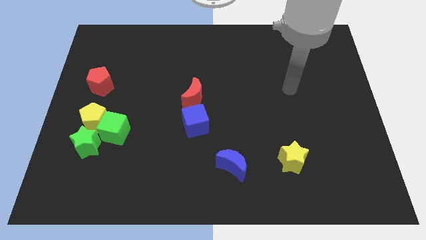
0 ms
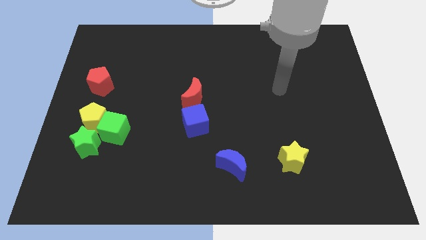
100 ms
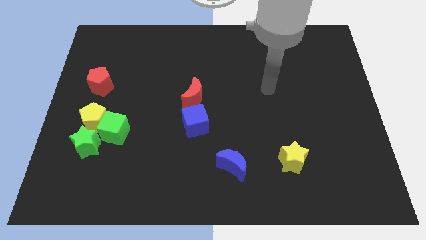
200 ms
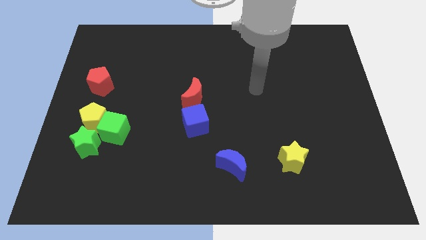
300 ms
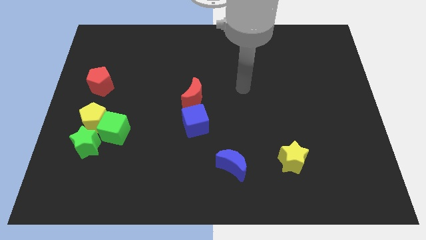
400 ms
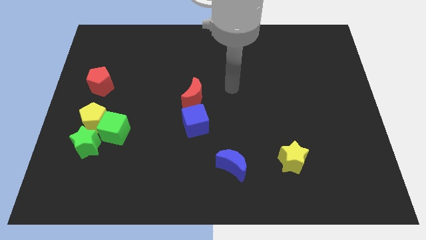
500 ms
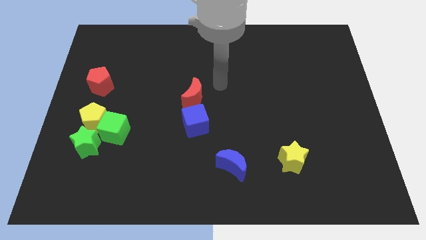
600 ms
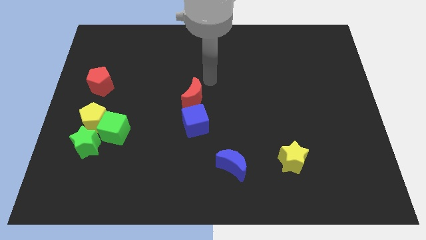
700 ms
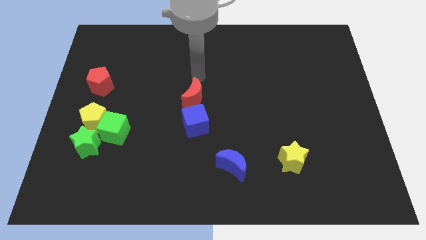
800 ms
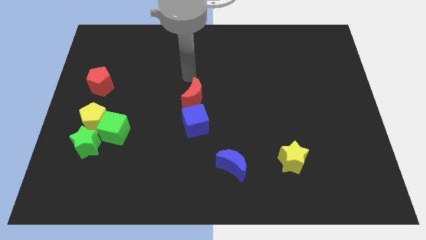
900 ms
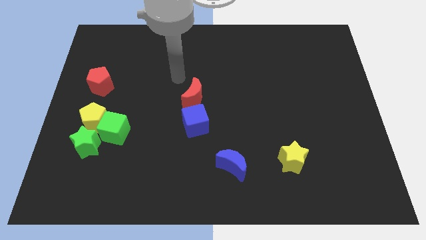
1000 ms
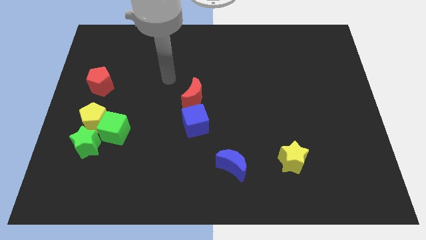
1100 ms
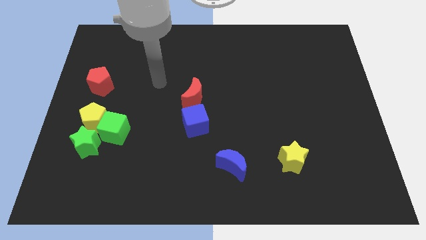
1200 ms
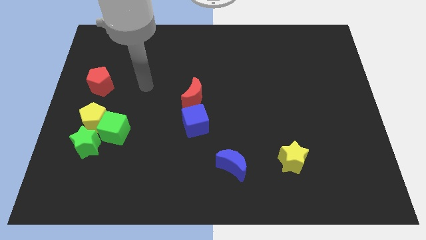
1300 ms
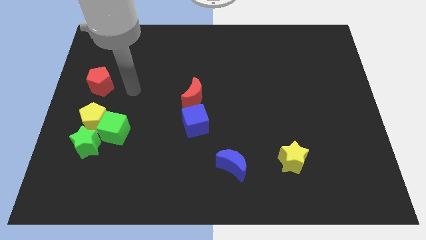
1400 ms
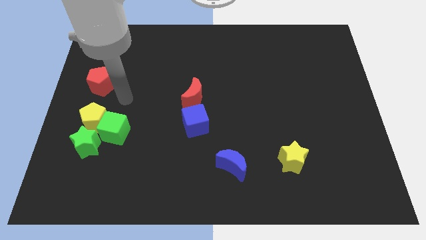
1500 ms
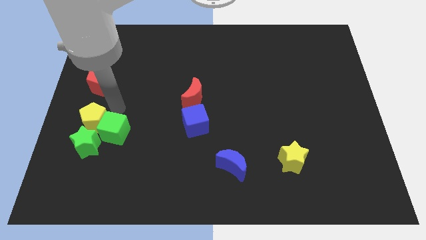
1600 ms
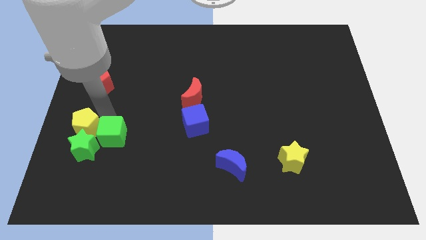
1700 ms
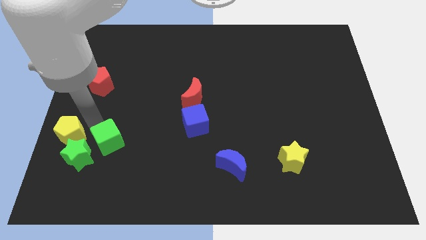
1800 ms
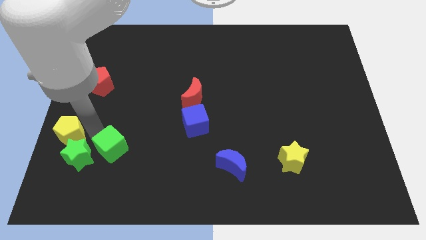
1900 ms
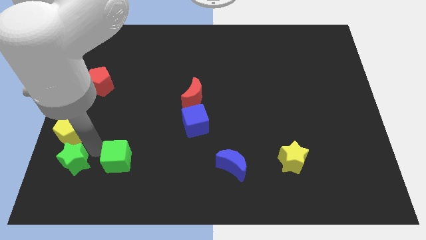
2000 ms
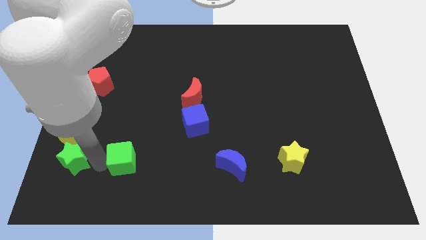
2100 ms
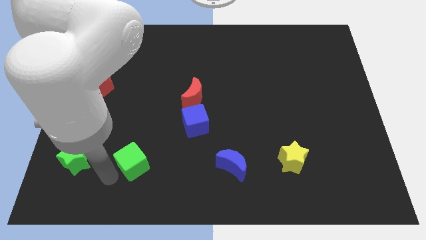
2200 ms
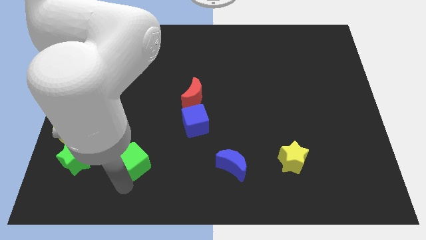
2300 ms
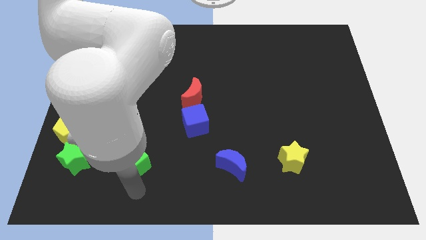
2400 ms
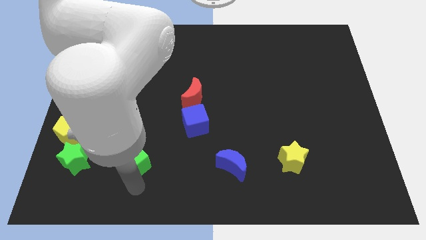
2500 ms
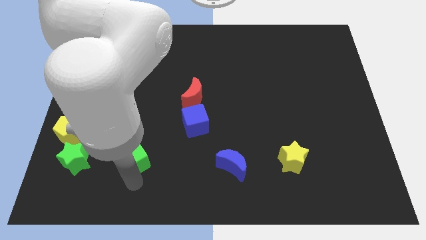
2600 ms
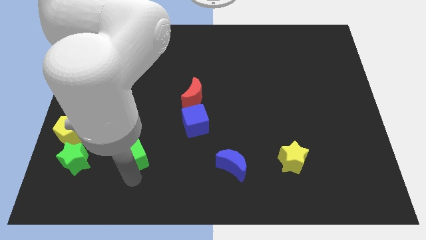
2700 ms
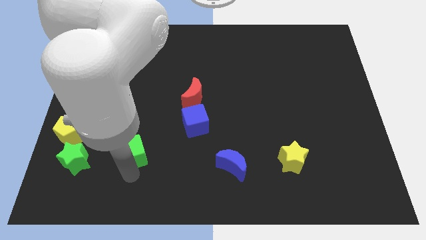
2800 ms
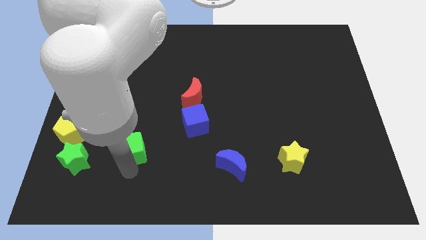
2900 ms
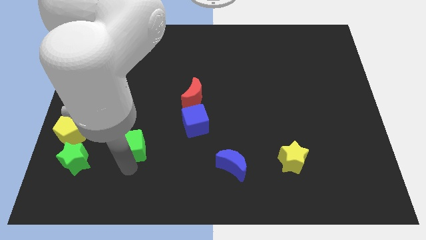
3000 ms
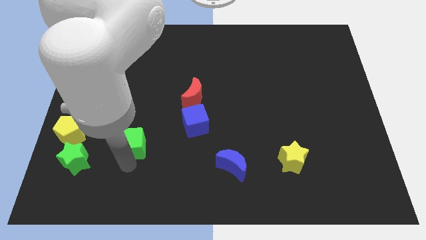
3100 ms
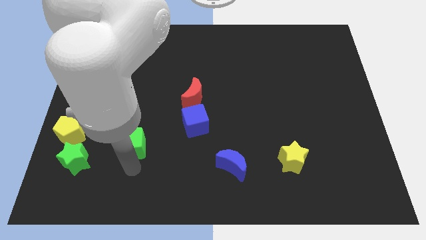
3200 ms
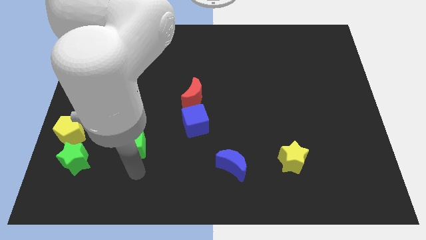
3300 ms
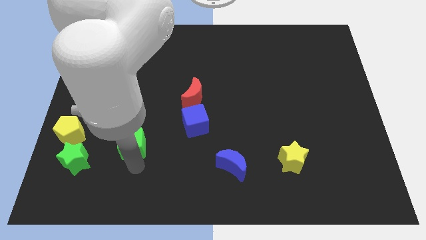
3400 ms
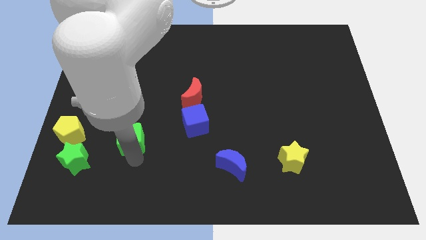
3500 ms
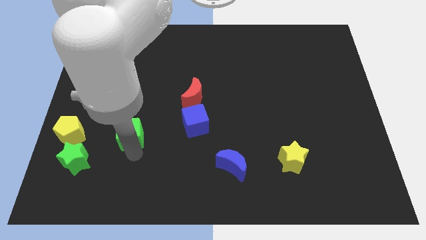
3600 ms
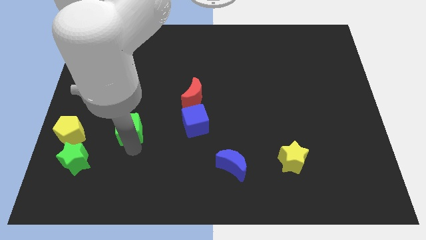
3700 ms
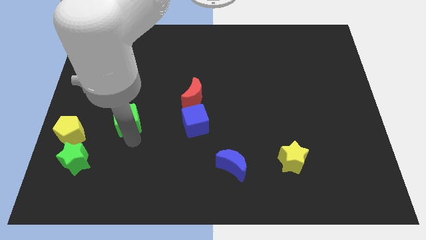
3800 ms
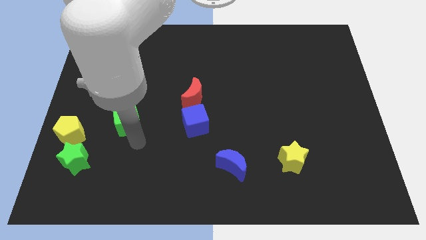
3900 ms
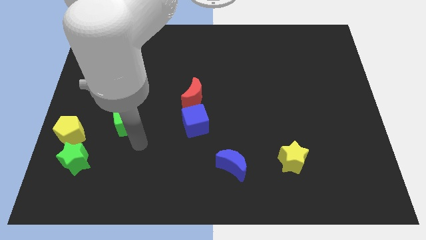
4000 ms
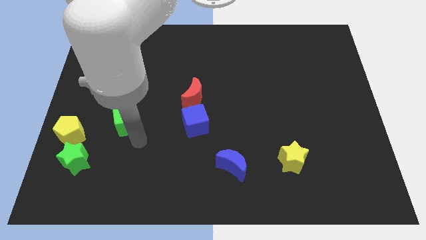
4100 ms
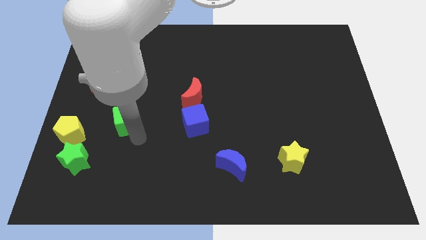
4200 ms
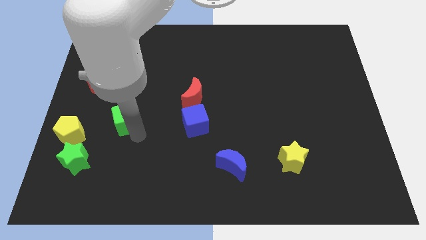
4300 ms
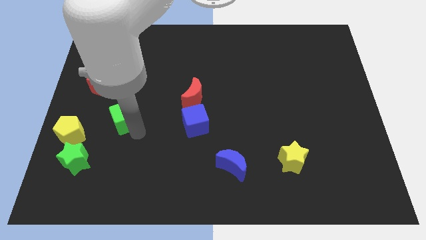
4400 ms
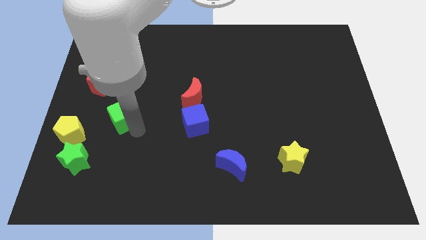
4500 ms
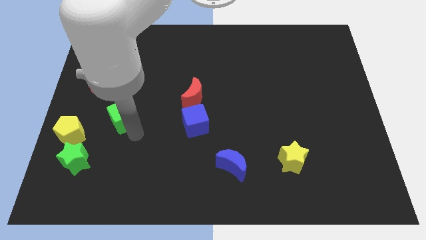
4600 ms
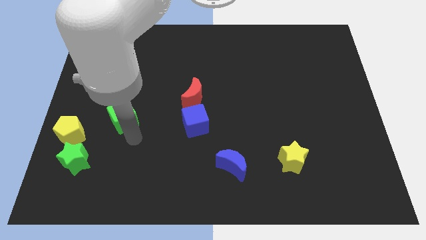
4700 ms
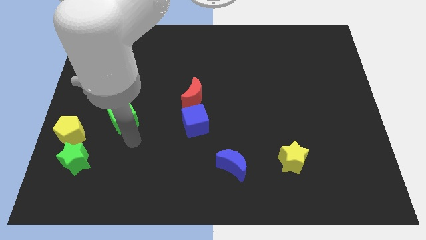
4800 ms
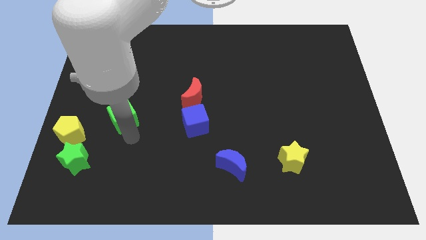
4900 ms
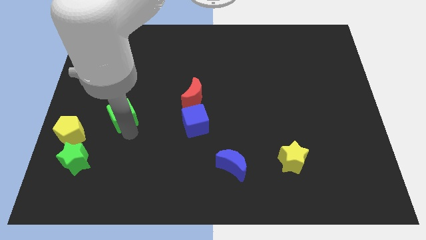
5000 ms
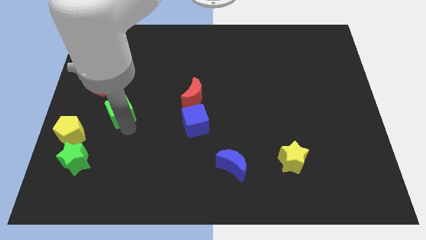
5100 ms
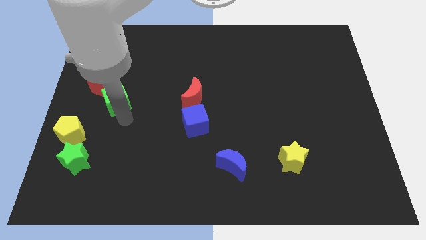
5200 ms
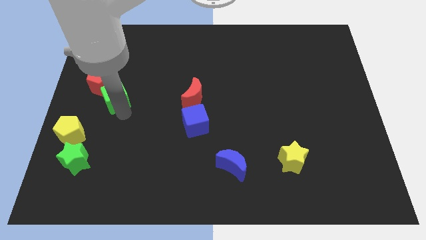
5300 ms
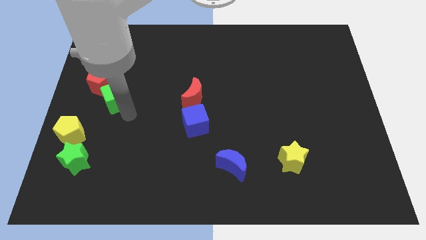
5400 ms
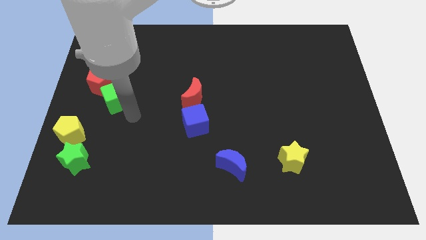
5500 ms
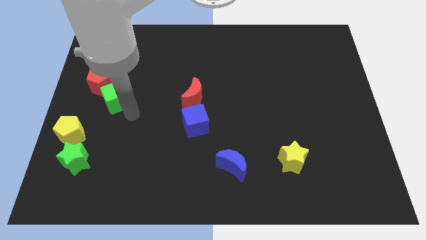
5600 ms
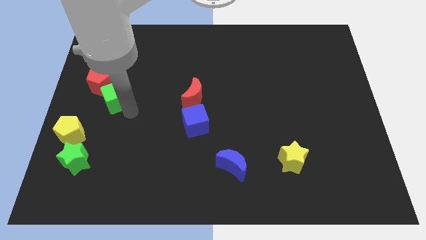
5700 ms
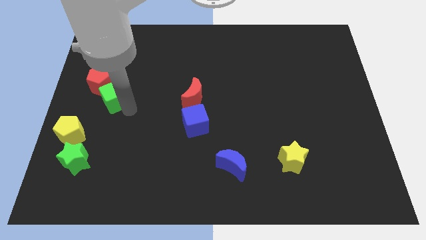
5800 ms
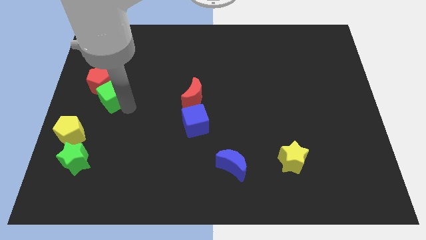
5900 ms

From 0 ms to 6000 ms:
move the green cube towards the red pentagon

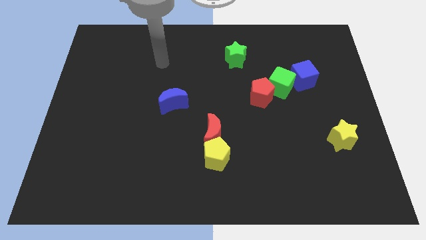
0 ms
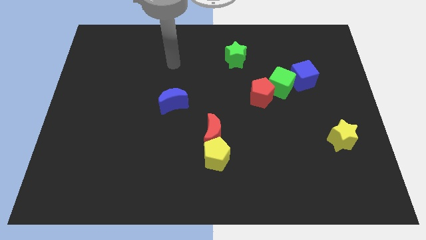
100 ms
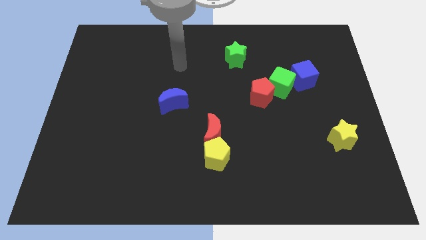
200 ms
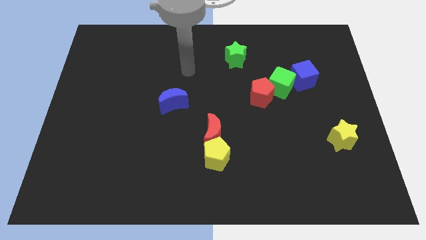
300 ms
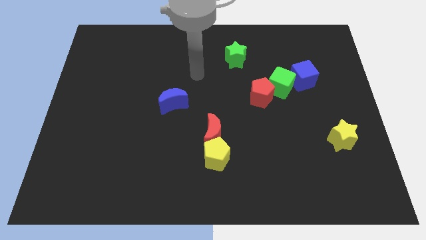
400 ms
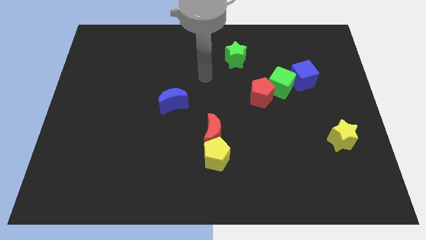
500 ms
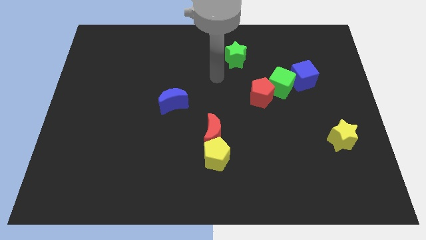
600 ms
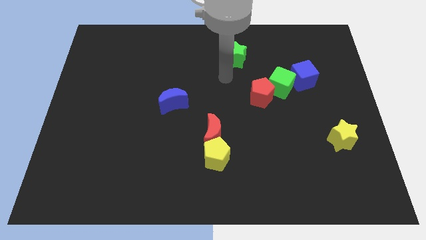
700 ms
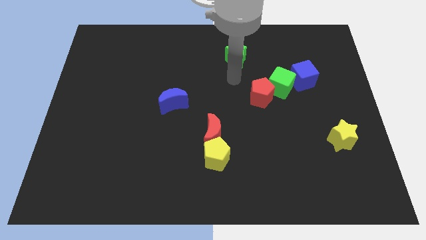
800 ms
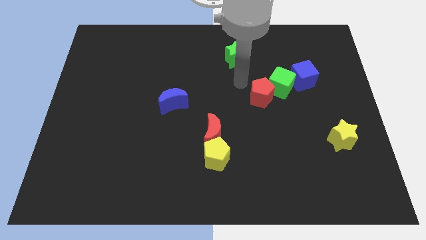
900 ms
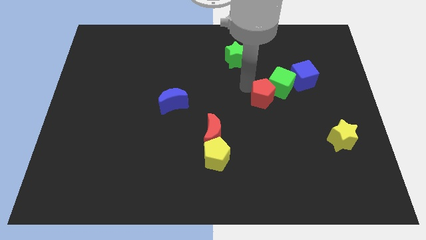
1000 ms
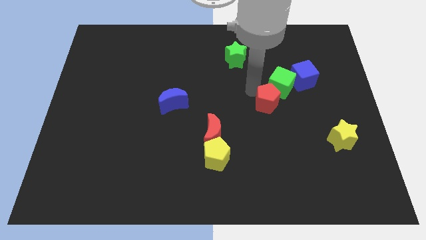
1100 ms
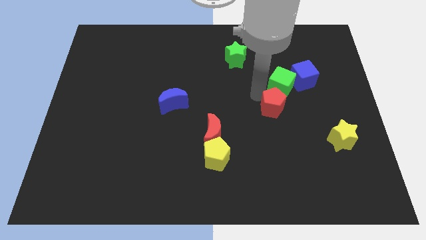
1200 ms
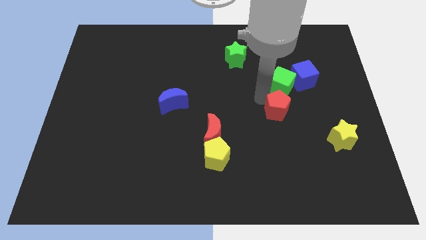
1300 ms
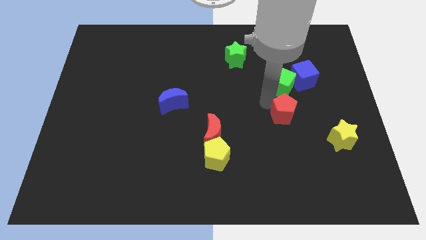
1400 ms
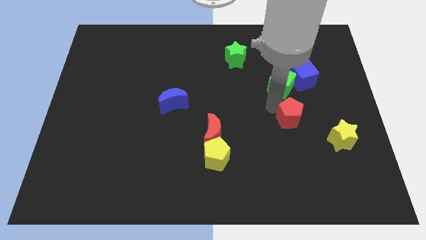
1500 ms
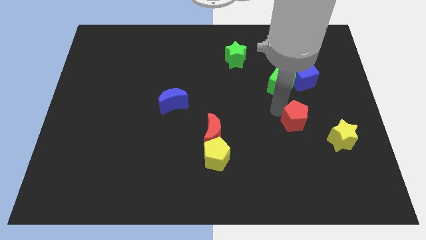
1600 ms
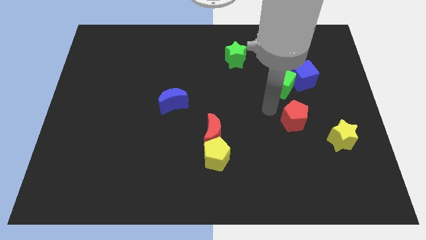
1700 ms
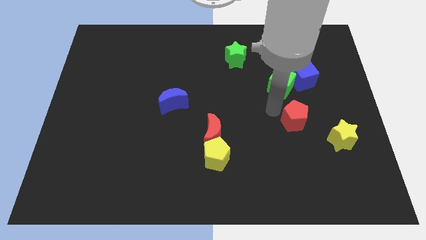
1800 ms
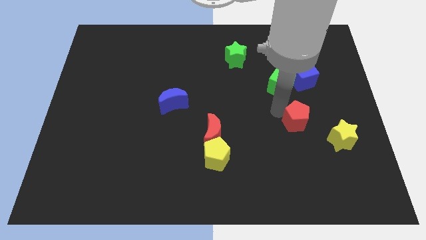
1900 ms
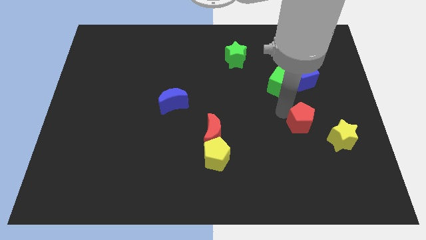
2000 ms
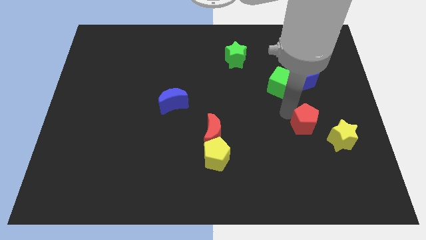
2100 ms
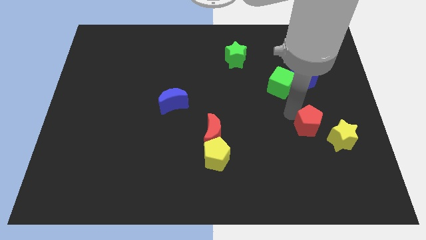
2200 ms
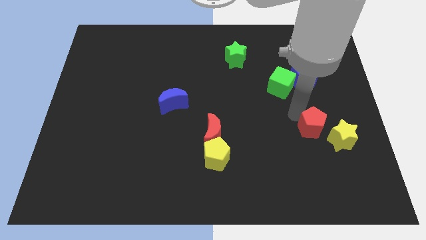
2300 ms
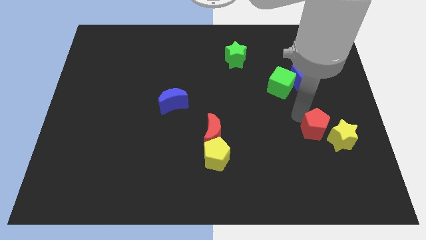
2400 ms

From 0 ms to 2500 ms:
push the red pentagon to the yellow star
